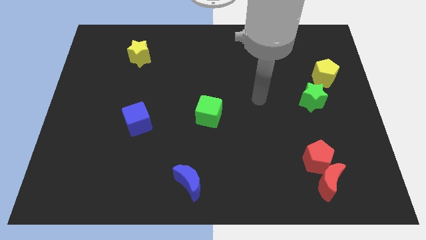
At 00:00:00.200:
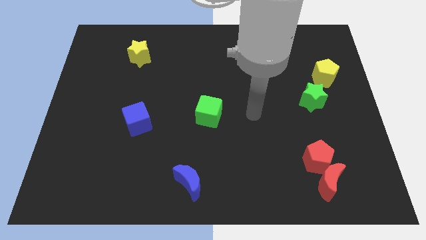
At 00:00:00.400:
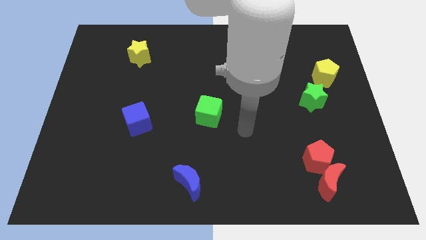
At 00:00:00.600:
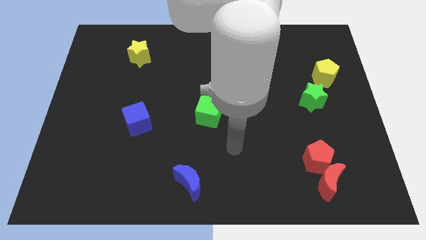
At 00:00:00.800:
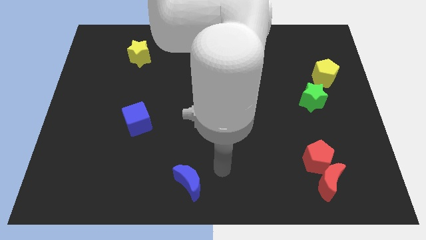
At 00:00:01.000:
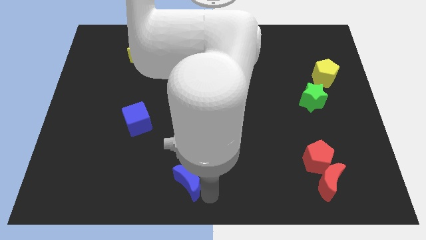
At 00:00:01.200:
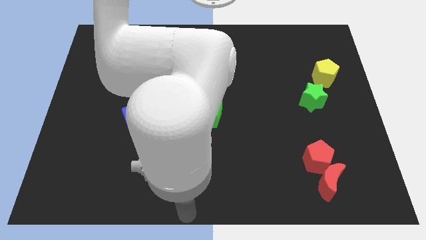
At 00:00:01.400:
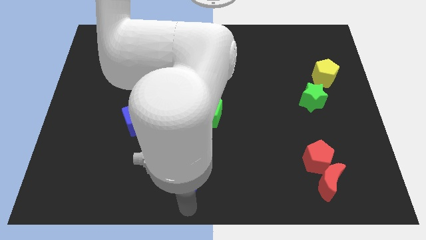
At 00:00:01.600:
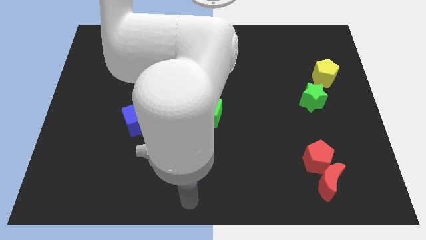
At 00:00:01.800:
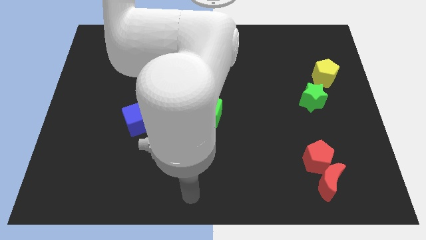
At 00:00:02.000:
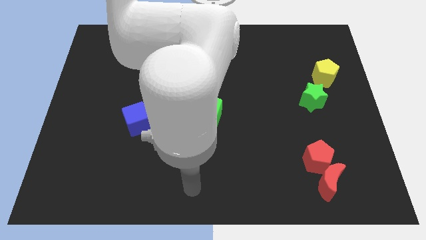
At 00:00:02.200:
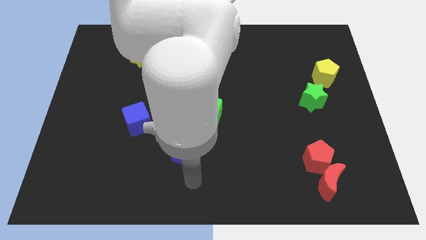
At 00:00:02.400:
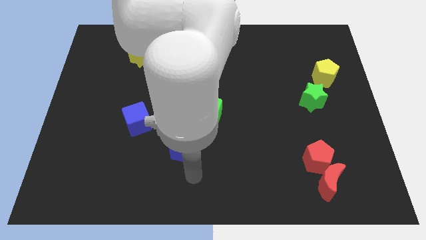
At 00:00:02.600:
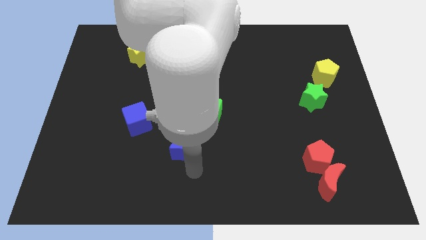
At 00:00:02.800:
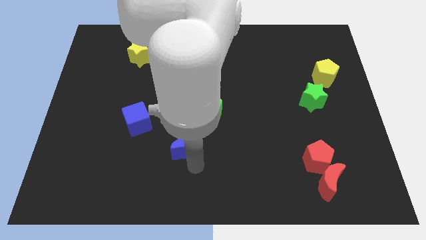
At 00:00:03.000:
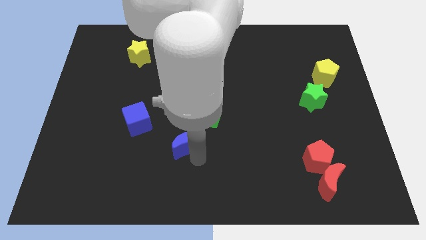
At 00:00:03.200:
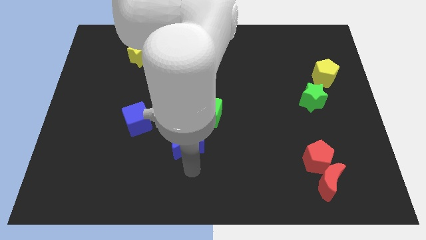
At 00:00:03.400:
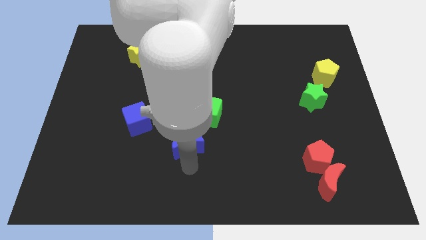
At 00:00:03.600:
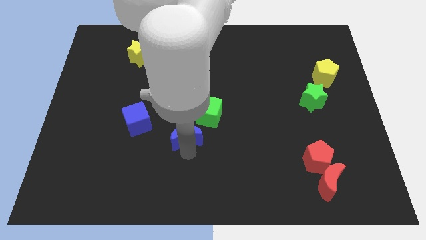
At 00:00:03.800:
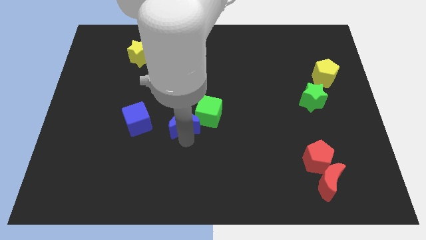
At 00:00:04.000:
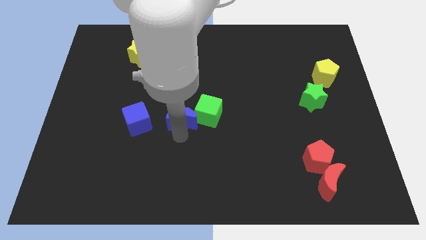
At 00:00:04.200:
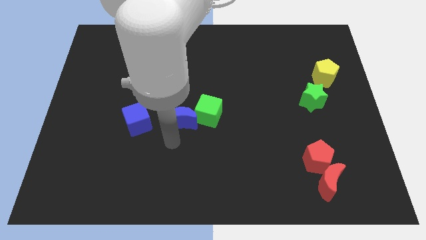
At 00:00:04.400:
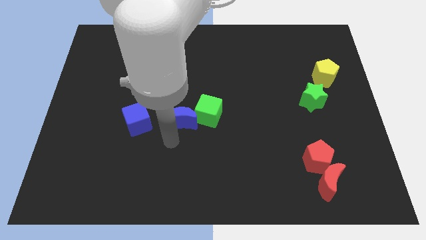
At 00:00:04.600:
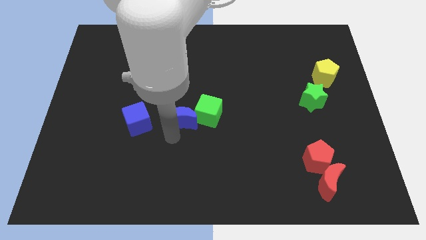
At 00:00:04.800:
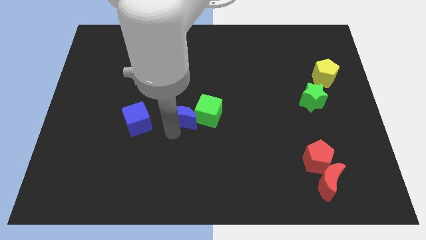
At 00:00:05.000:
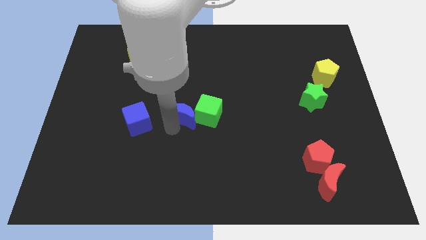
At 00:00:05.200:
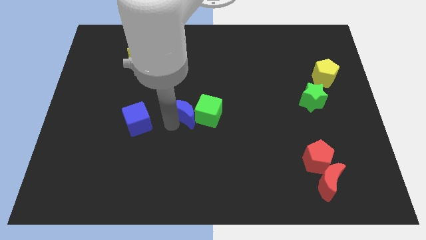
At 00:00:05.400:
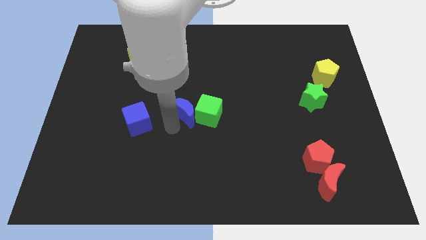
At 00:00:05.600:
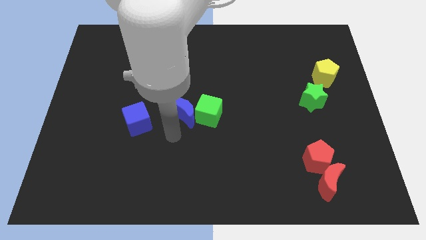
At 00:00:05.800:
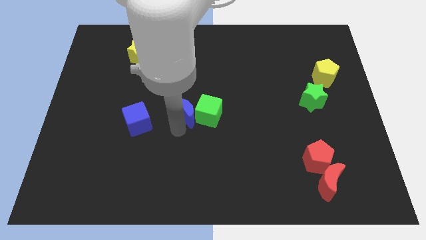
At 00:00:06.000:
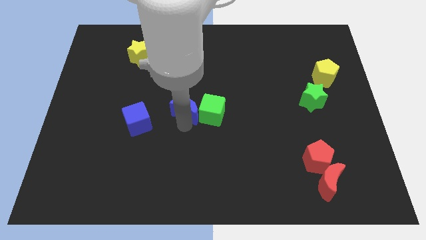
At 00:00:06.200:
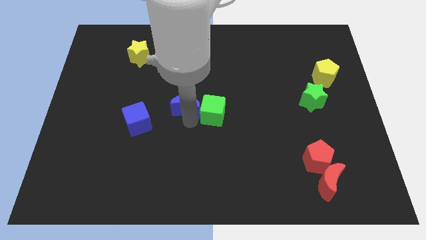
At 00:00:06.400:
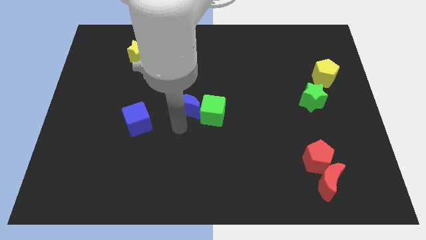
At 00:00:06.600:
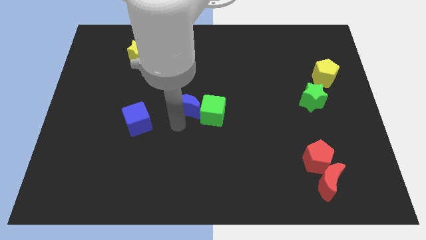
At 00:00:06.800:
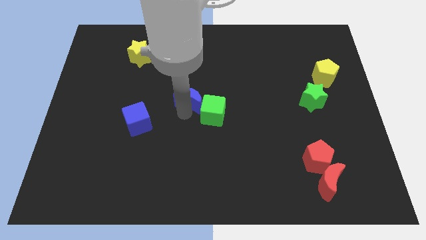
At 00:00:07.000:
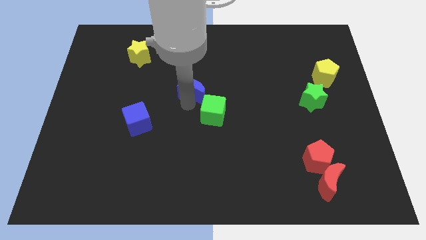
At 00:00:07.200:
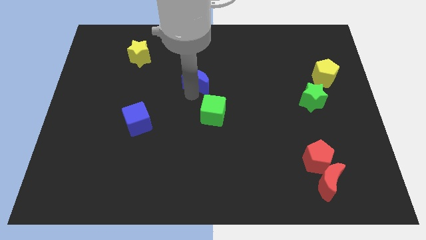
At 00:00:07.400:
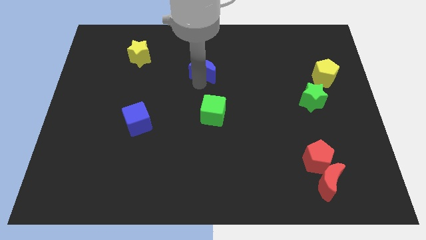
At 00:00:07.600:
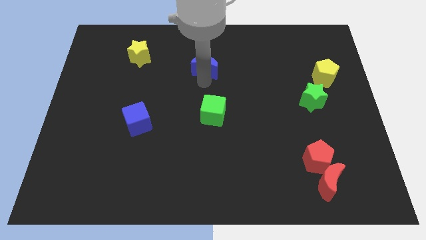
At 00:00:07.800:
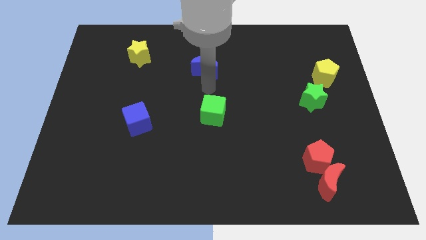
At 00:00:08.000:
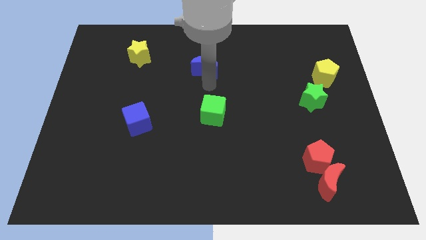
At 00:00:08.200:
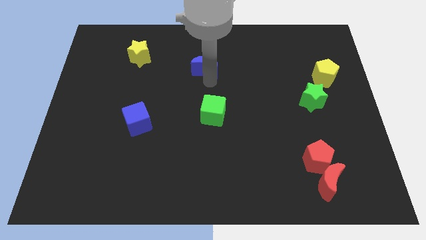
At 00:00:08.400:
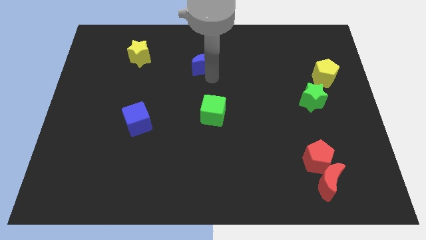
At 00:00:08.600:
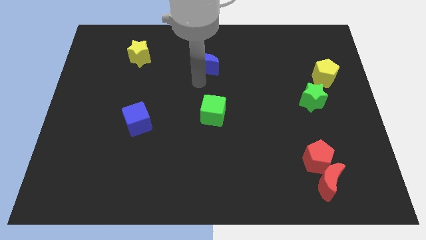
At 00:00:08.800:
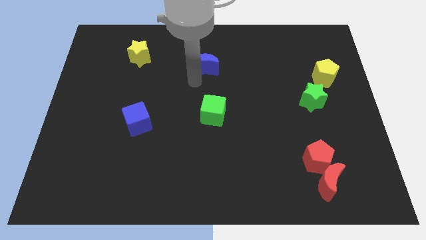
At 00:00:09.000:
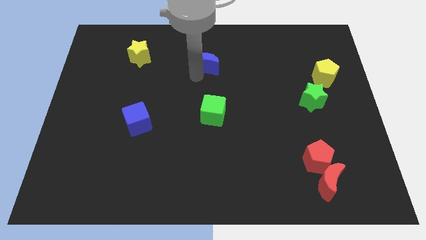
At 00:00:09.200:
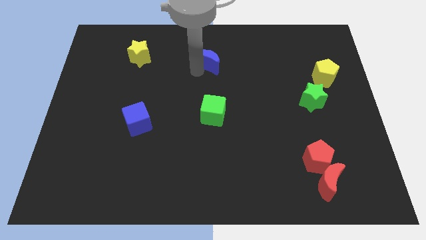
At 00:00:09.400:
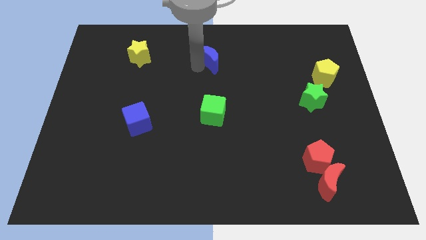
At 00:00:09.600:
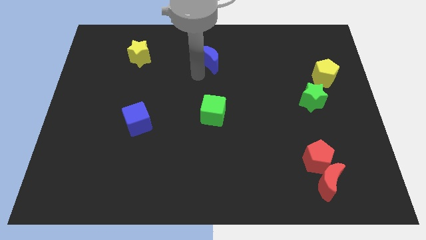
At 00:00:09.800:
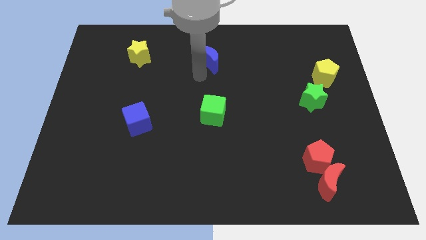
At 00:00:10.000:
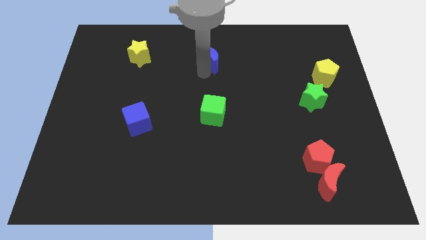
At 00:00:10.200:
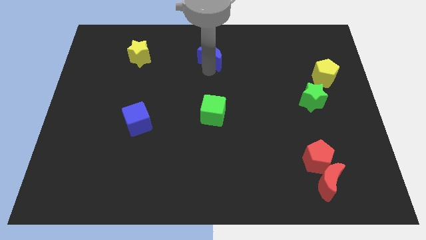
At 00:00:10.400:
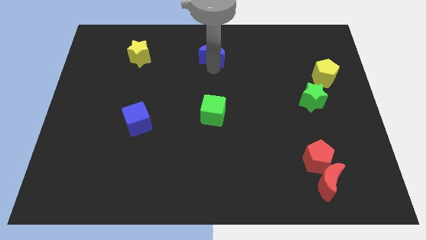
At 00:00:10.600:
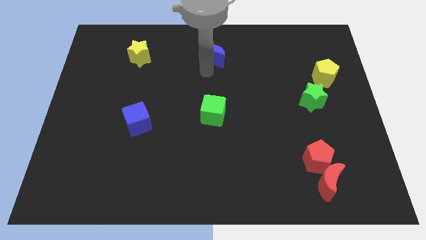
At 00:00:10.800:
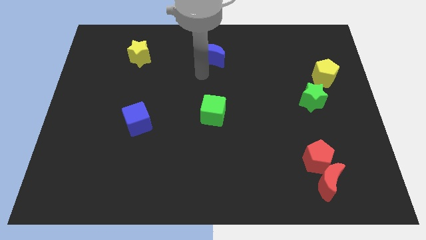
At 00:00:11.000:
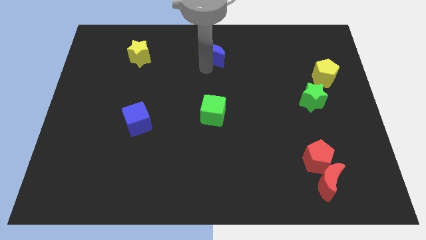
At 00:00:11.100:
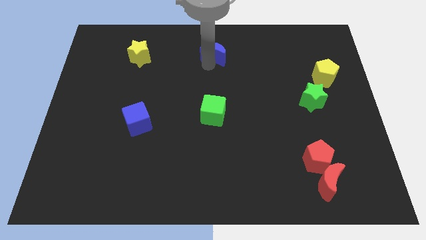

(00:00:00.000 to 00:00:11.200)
put the blue moon to the top

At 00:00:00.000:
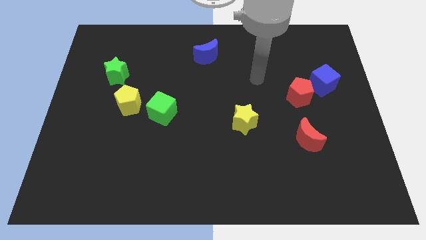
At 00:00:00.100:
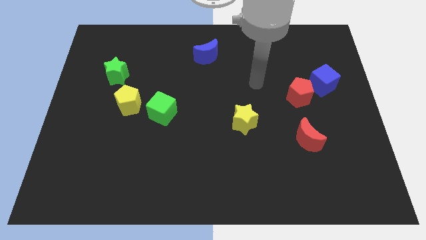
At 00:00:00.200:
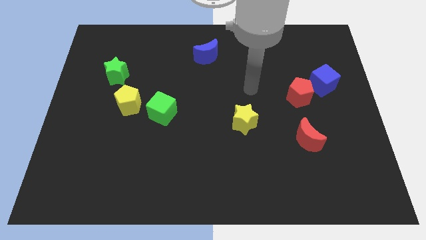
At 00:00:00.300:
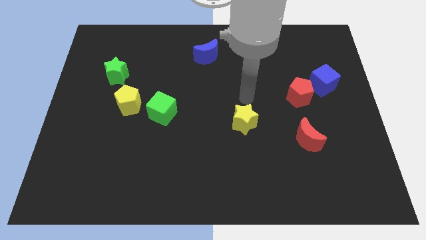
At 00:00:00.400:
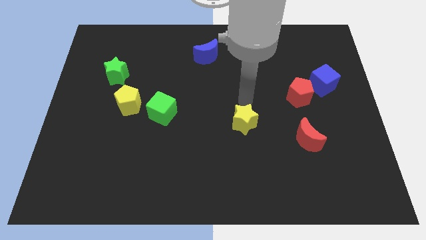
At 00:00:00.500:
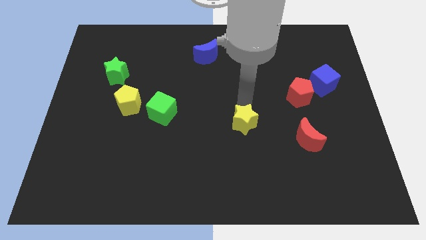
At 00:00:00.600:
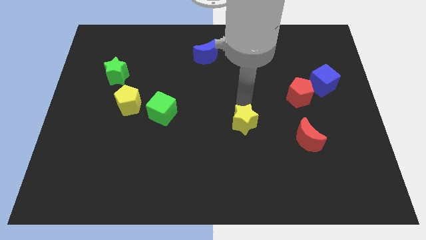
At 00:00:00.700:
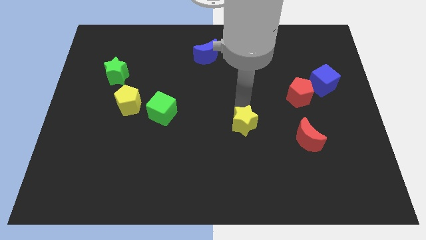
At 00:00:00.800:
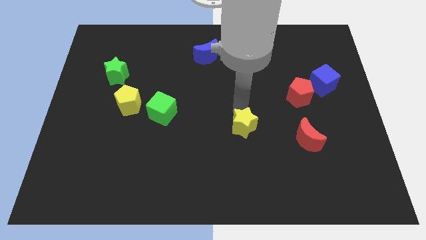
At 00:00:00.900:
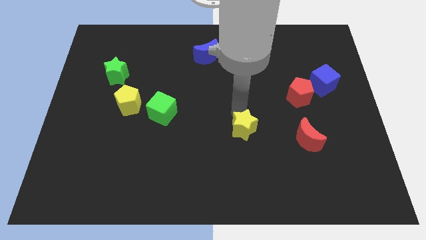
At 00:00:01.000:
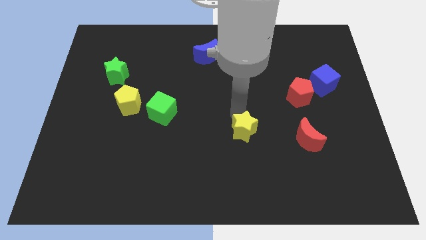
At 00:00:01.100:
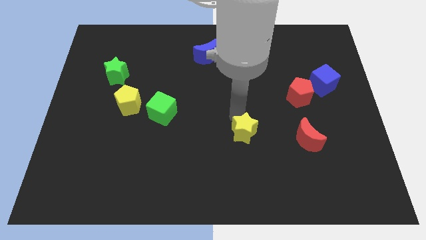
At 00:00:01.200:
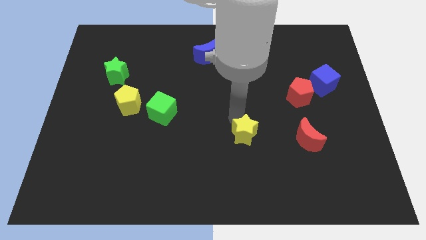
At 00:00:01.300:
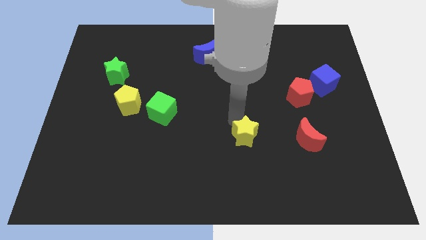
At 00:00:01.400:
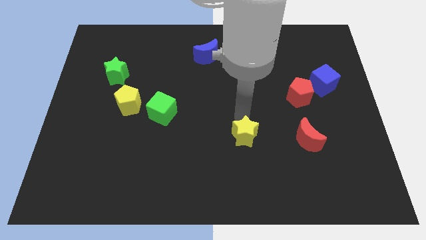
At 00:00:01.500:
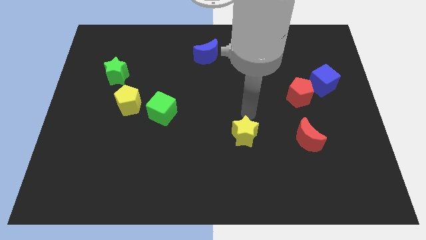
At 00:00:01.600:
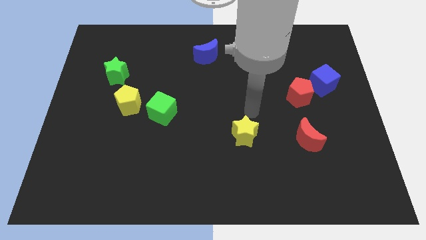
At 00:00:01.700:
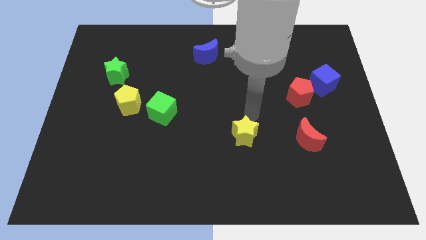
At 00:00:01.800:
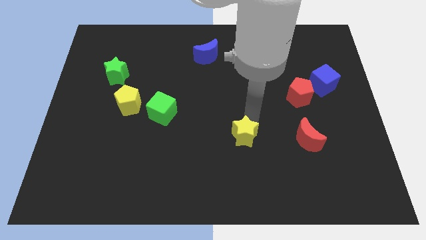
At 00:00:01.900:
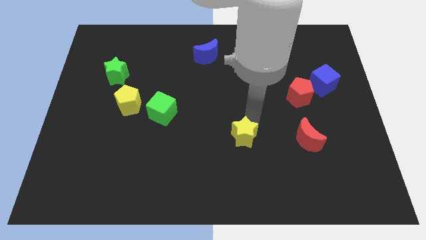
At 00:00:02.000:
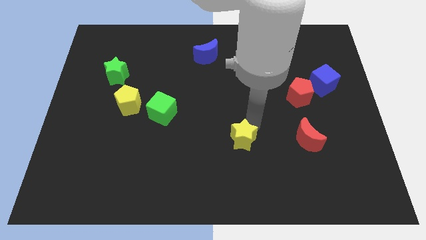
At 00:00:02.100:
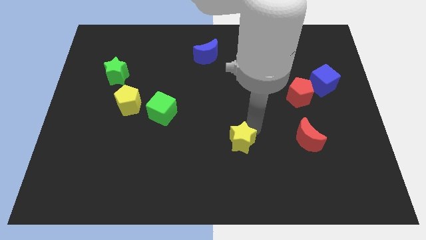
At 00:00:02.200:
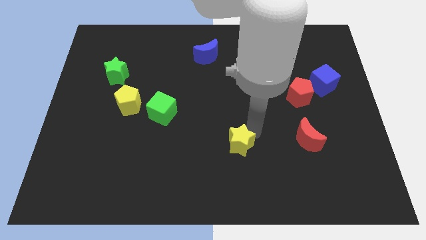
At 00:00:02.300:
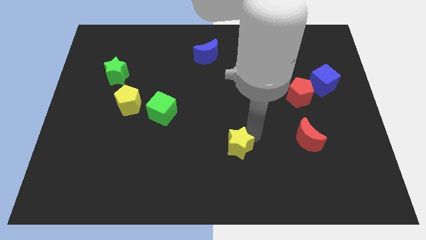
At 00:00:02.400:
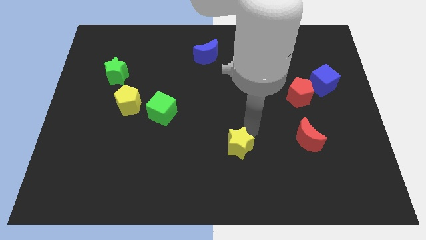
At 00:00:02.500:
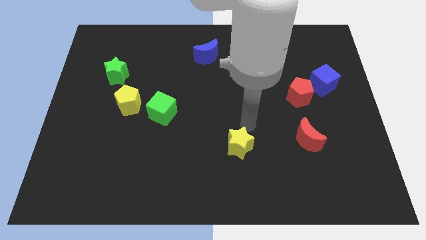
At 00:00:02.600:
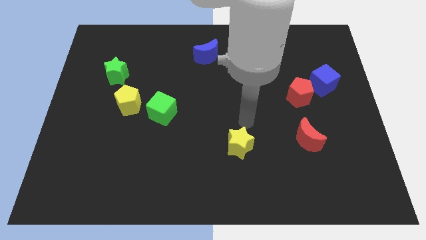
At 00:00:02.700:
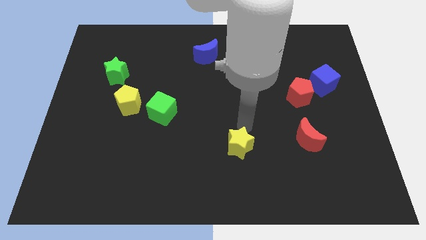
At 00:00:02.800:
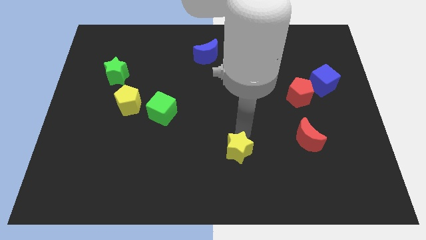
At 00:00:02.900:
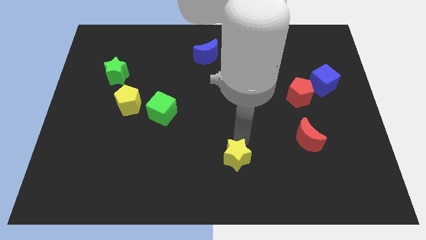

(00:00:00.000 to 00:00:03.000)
slide the yellow star to the bottom side
